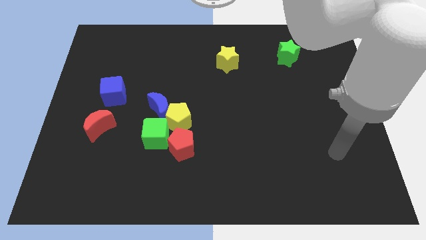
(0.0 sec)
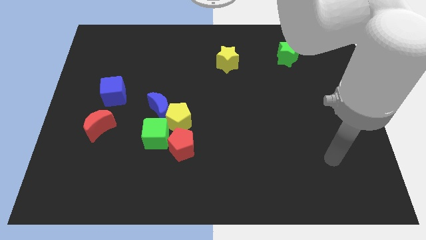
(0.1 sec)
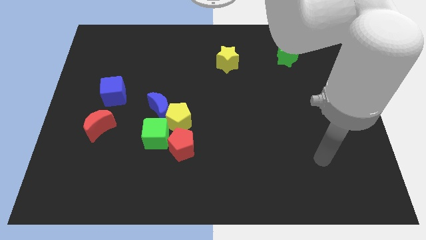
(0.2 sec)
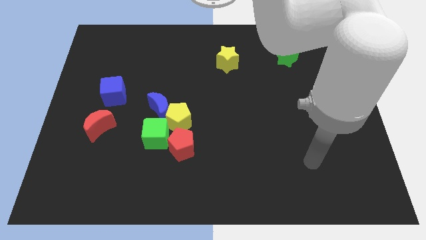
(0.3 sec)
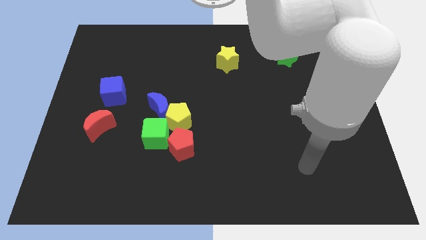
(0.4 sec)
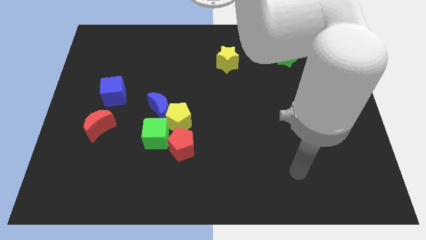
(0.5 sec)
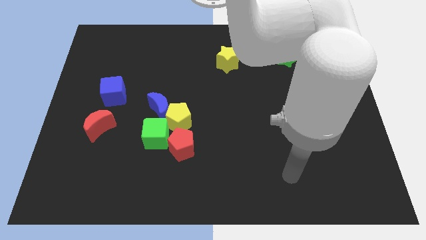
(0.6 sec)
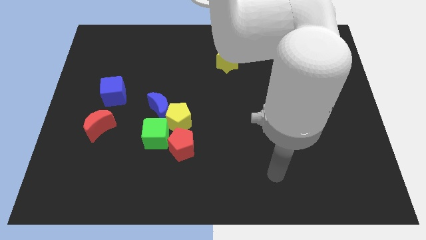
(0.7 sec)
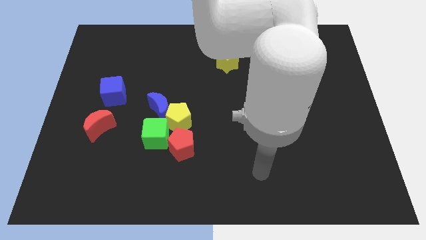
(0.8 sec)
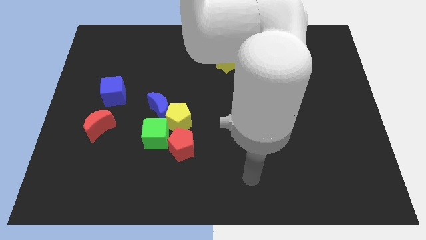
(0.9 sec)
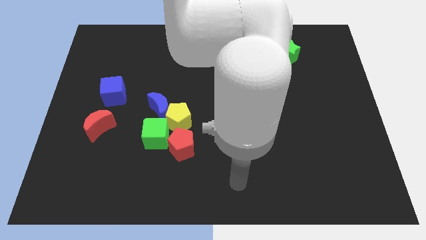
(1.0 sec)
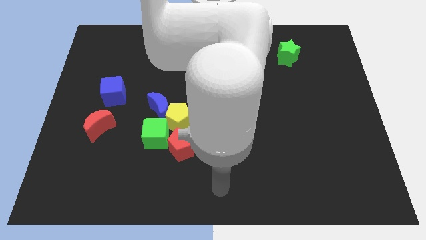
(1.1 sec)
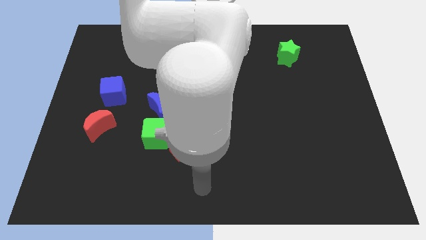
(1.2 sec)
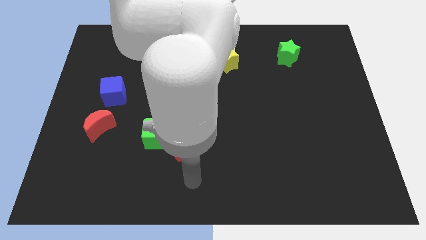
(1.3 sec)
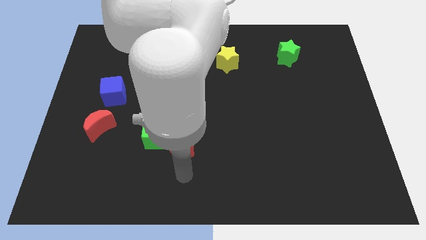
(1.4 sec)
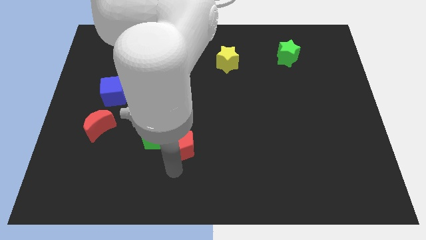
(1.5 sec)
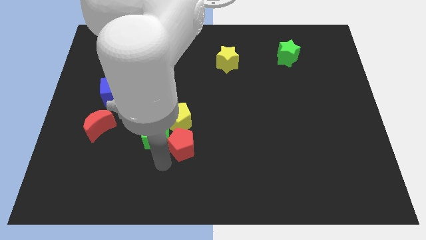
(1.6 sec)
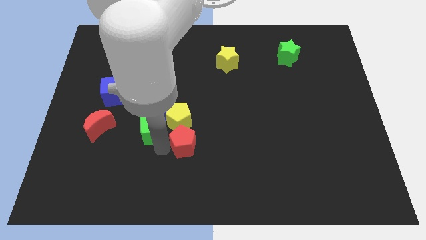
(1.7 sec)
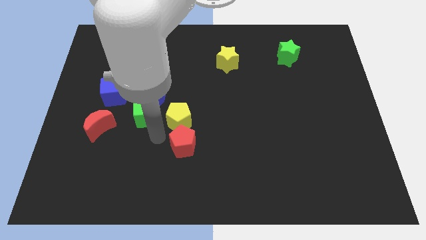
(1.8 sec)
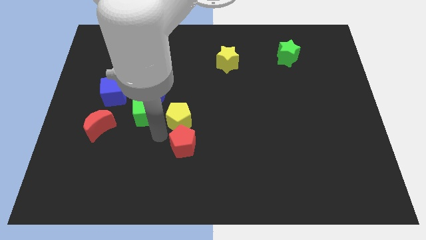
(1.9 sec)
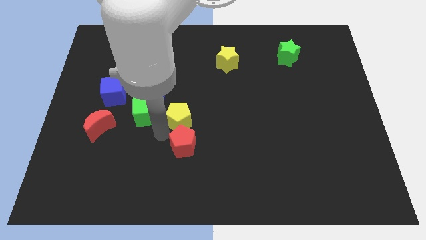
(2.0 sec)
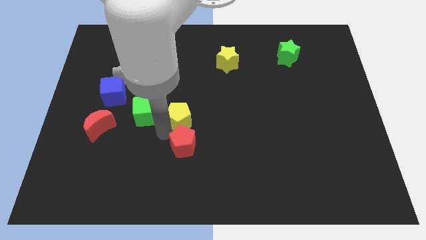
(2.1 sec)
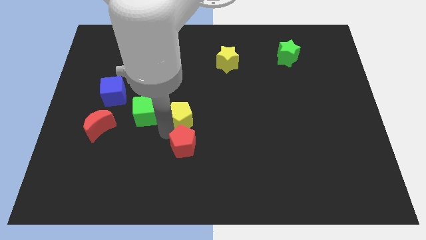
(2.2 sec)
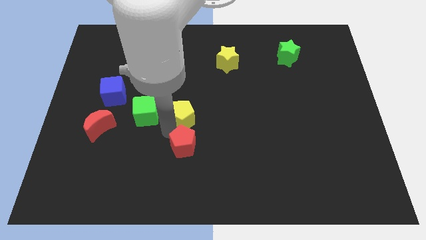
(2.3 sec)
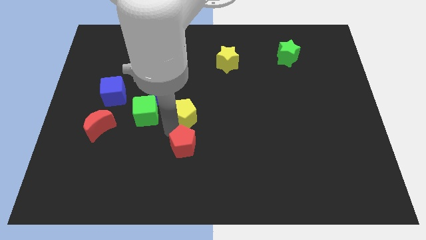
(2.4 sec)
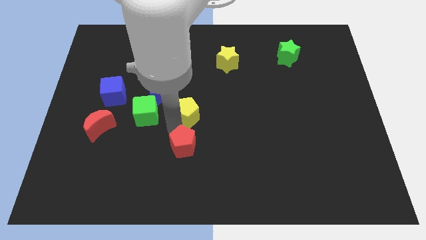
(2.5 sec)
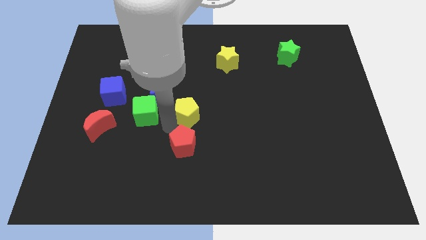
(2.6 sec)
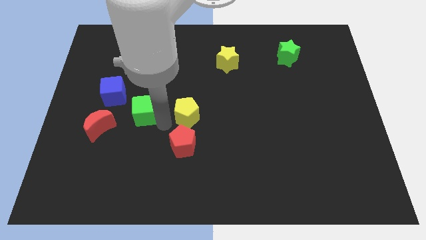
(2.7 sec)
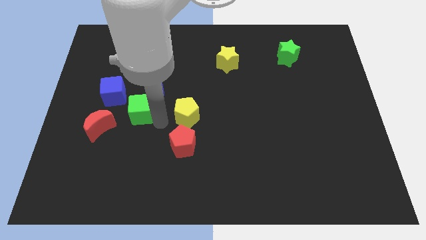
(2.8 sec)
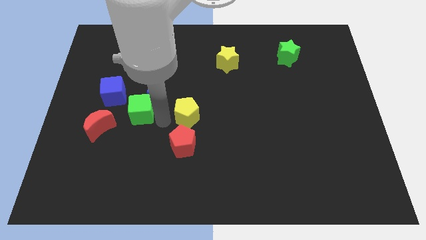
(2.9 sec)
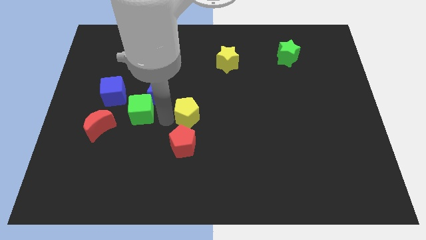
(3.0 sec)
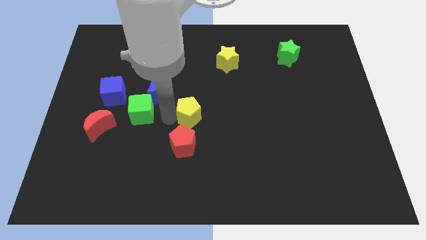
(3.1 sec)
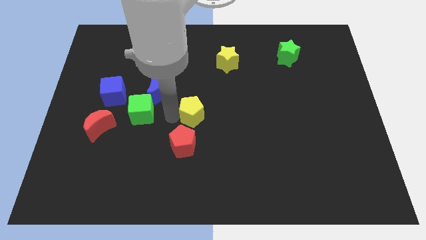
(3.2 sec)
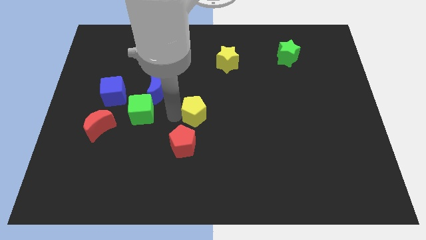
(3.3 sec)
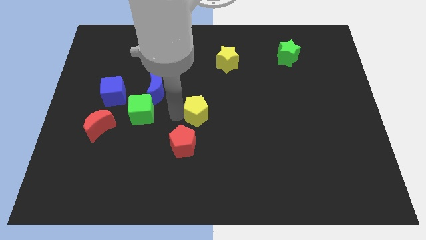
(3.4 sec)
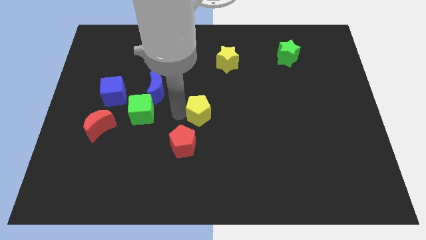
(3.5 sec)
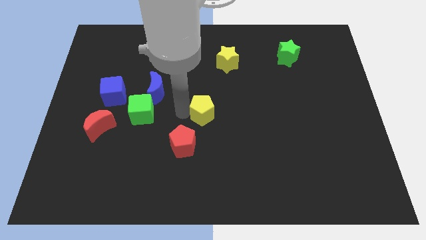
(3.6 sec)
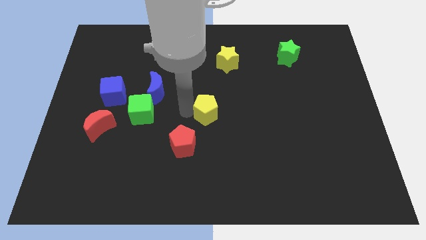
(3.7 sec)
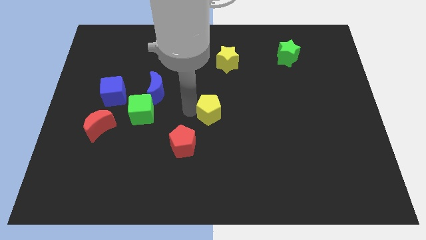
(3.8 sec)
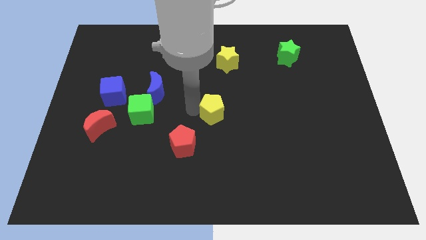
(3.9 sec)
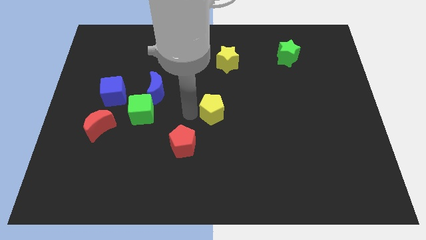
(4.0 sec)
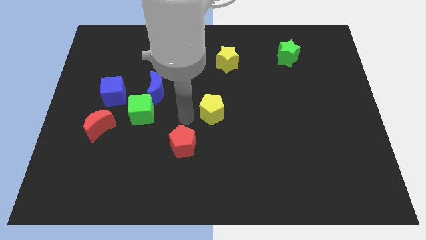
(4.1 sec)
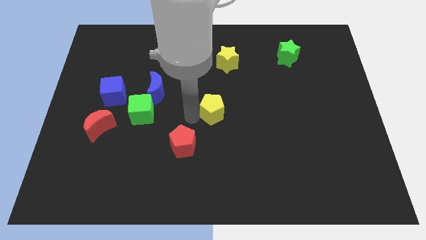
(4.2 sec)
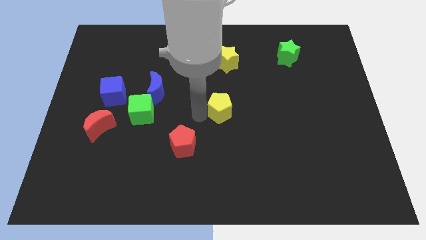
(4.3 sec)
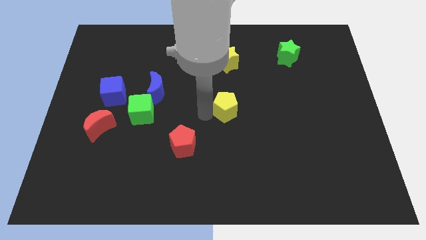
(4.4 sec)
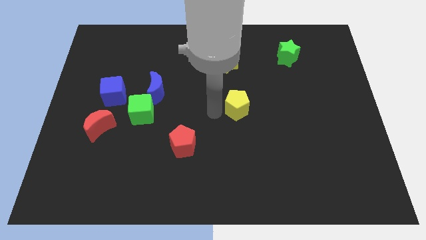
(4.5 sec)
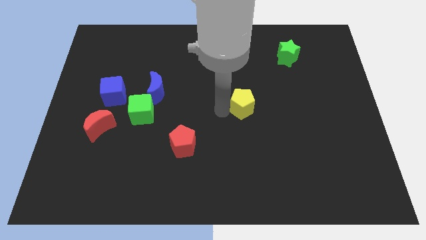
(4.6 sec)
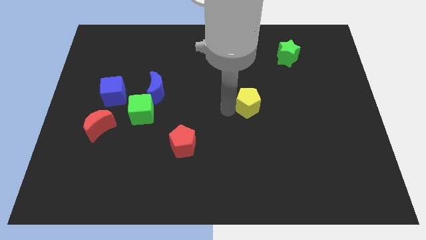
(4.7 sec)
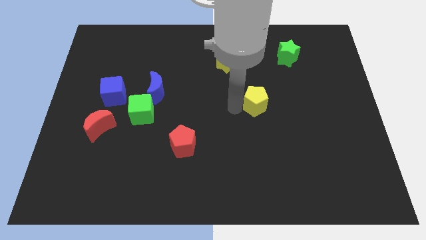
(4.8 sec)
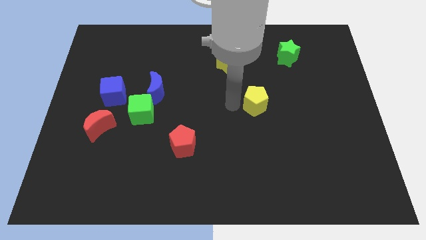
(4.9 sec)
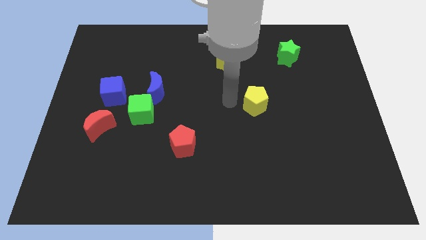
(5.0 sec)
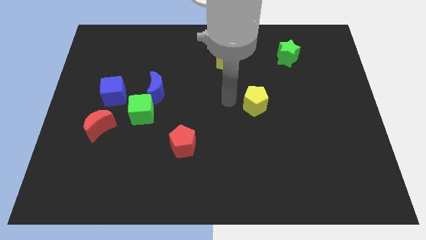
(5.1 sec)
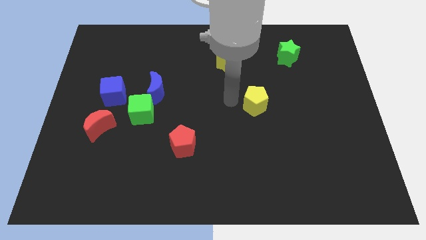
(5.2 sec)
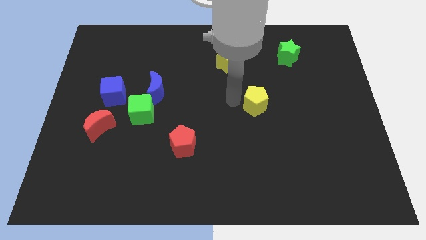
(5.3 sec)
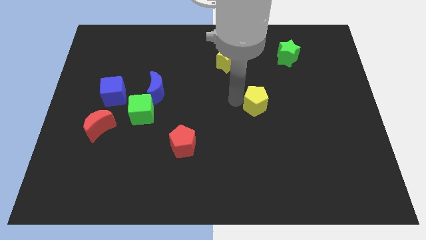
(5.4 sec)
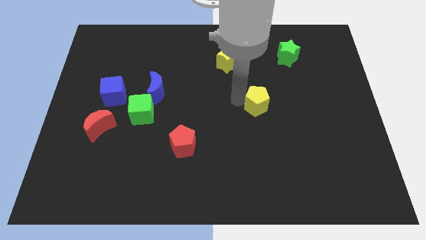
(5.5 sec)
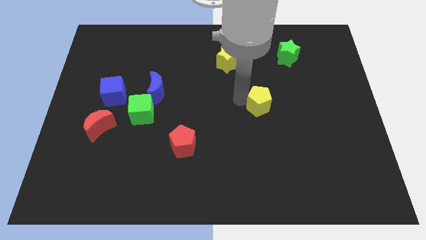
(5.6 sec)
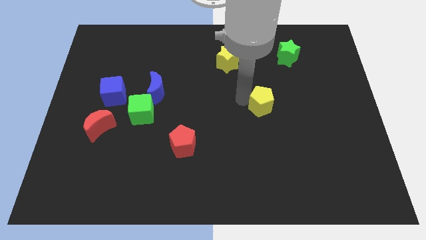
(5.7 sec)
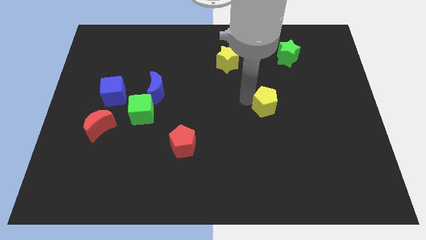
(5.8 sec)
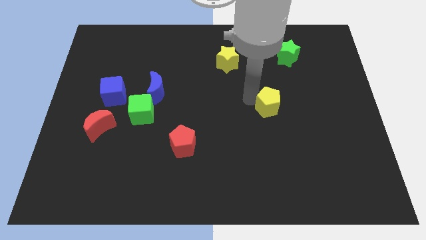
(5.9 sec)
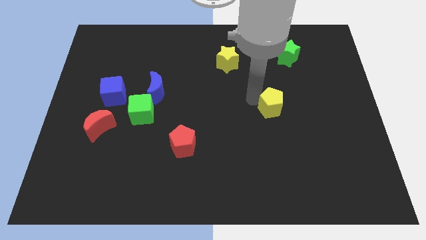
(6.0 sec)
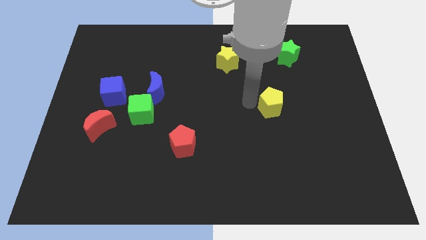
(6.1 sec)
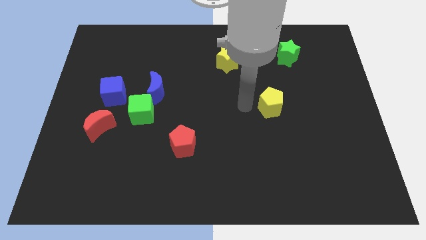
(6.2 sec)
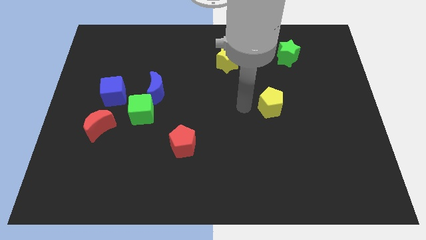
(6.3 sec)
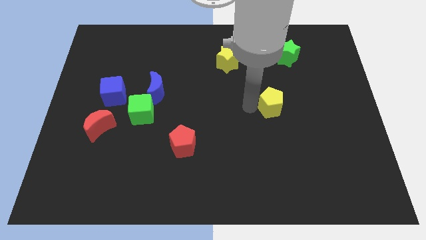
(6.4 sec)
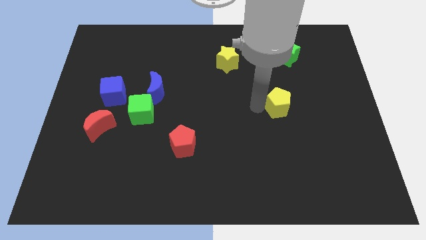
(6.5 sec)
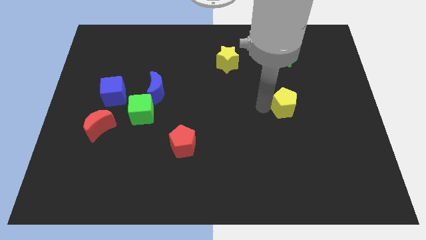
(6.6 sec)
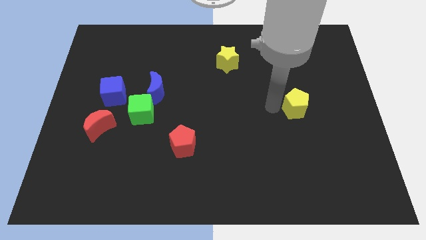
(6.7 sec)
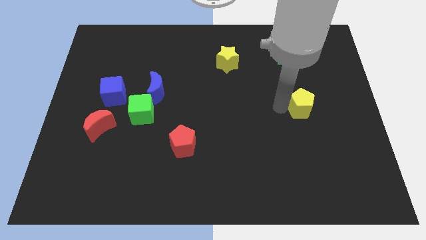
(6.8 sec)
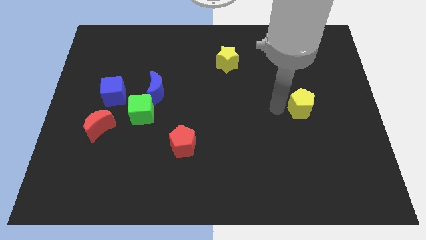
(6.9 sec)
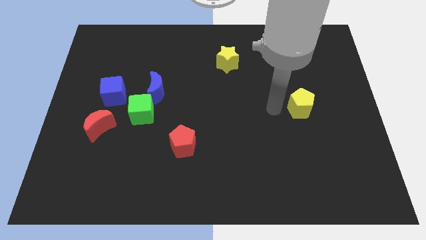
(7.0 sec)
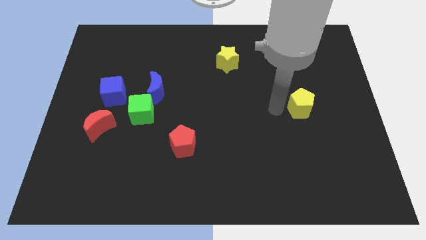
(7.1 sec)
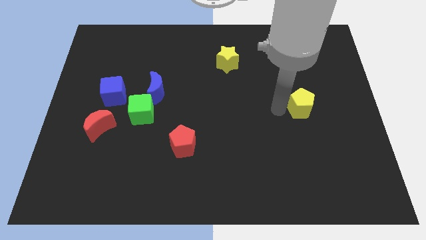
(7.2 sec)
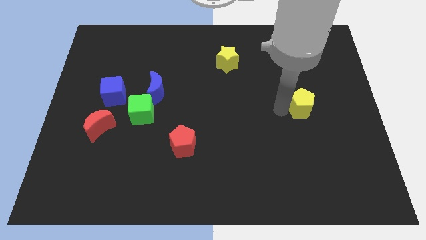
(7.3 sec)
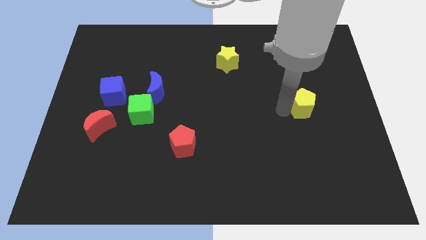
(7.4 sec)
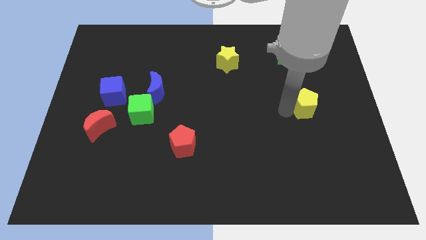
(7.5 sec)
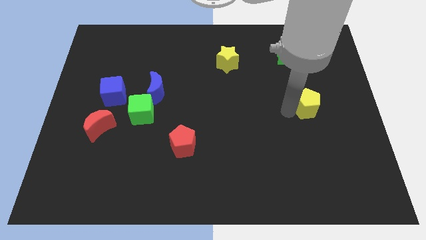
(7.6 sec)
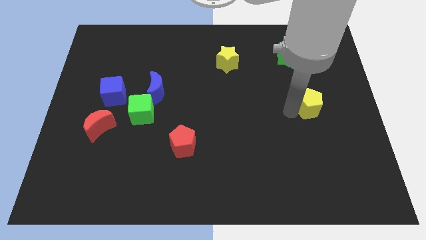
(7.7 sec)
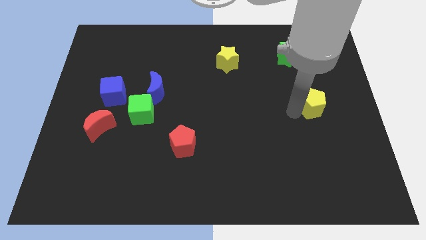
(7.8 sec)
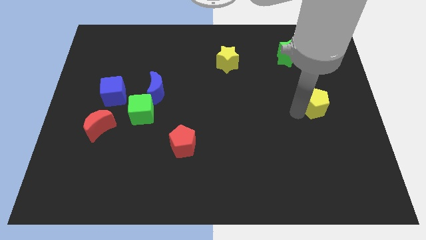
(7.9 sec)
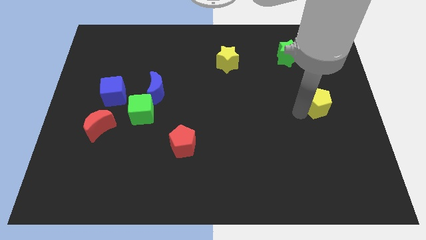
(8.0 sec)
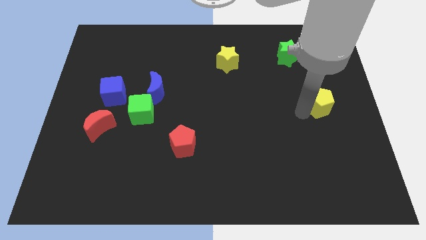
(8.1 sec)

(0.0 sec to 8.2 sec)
slide the yellow pentagon to the center right
